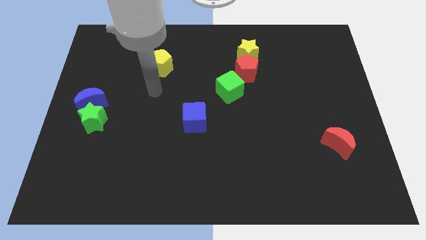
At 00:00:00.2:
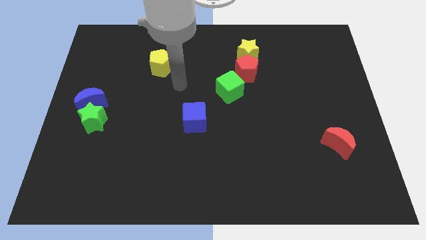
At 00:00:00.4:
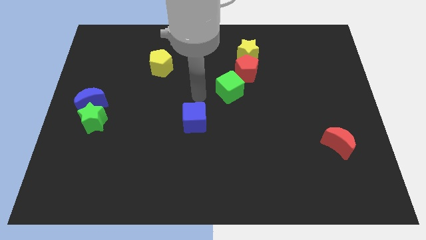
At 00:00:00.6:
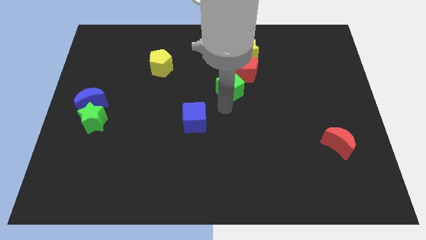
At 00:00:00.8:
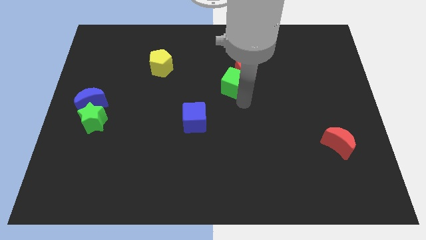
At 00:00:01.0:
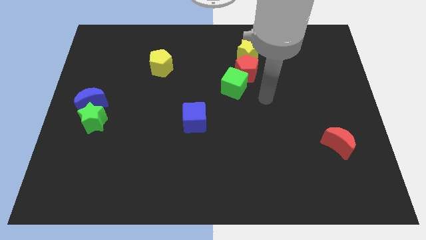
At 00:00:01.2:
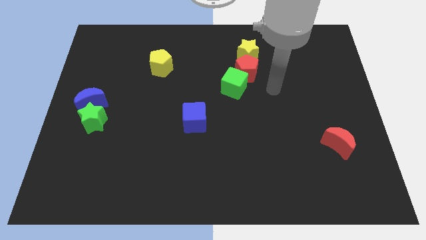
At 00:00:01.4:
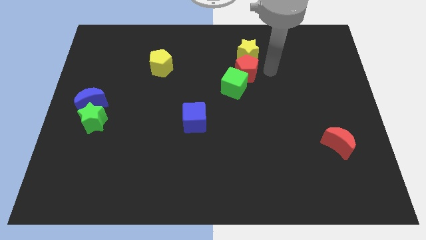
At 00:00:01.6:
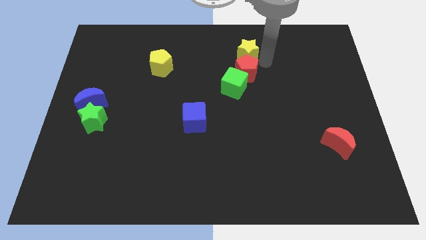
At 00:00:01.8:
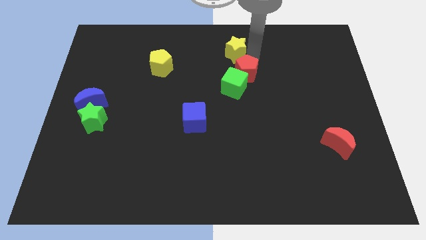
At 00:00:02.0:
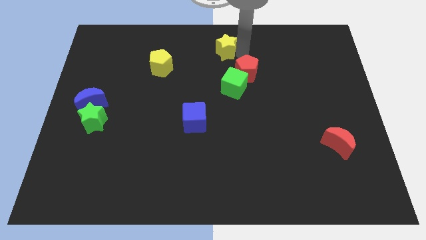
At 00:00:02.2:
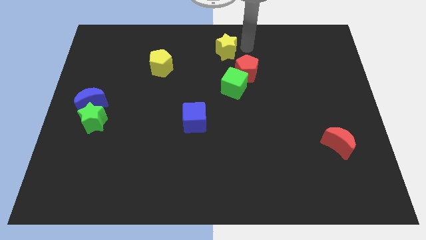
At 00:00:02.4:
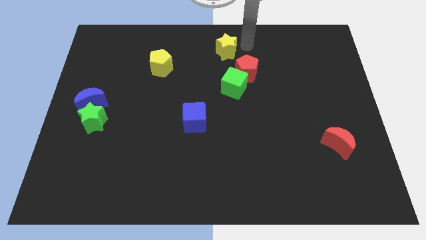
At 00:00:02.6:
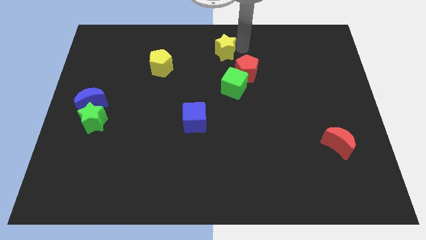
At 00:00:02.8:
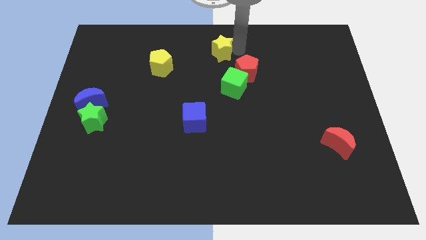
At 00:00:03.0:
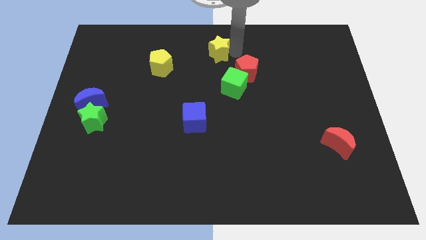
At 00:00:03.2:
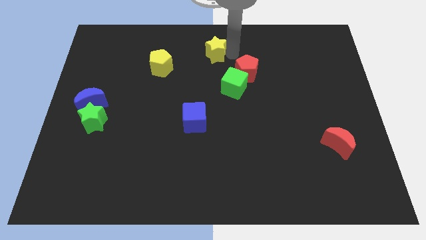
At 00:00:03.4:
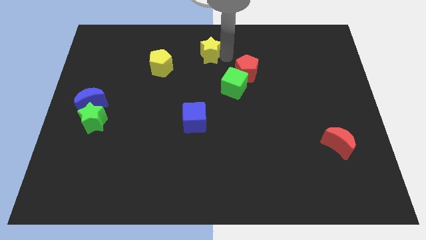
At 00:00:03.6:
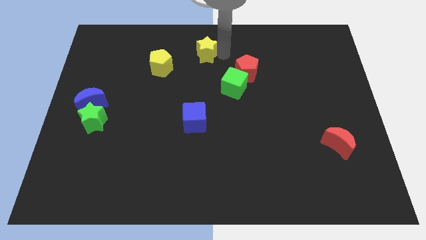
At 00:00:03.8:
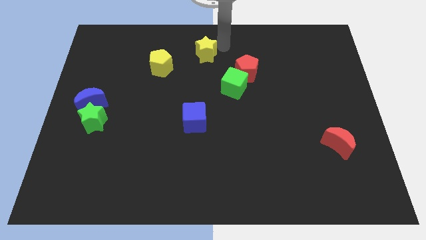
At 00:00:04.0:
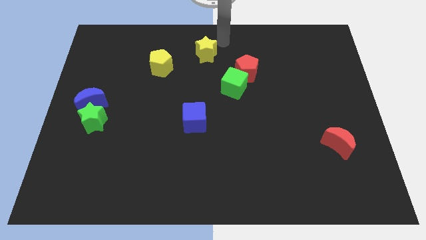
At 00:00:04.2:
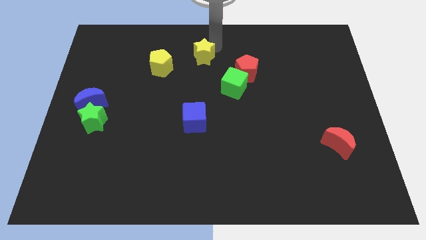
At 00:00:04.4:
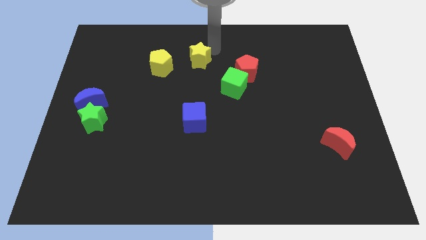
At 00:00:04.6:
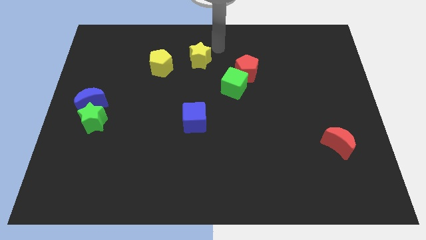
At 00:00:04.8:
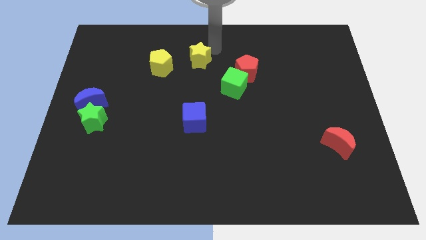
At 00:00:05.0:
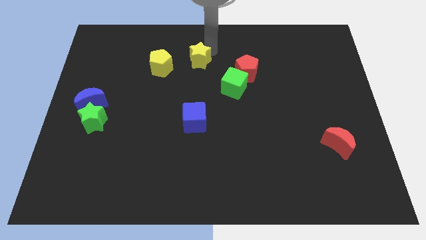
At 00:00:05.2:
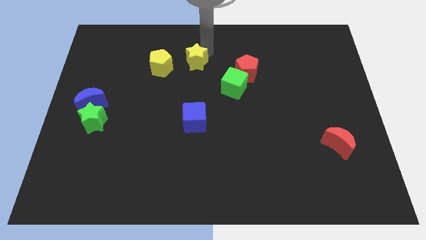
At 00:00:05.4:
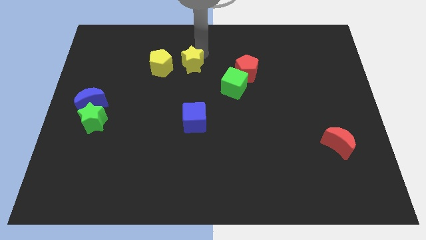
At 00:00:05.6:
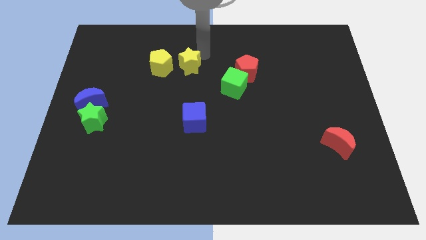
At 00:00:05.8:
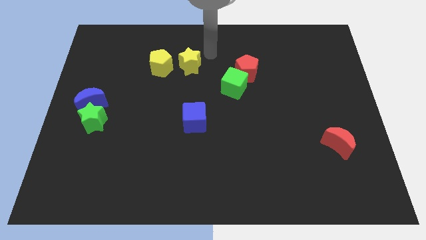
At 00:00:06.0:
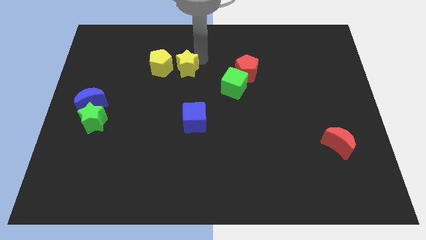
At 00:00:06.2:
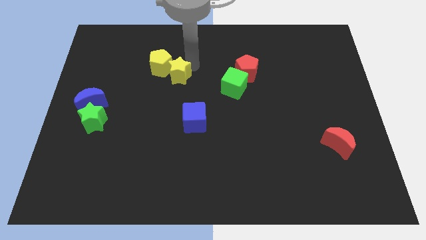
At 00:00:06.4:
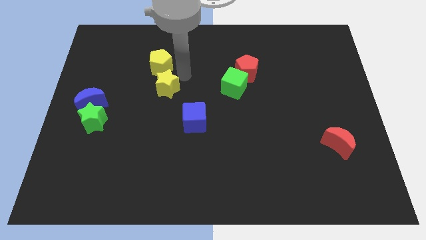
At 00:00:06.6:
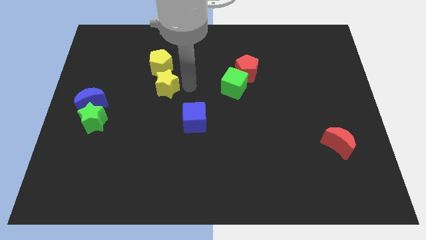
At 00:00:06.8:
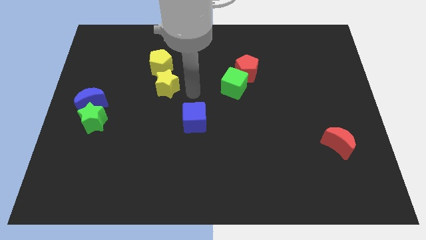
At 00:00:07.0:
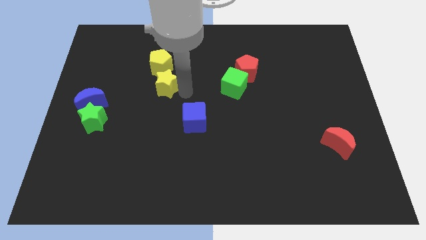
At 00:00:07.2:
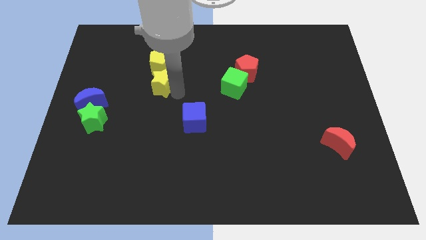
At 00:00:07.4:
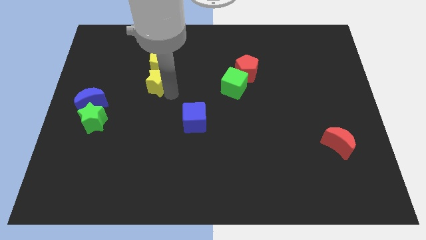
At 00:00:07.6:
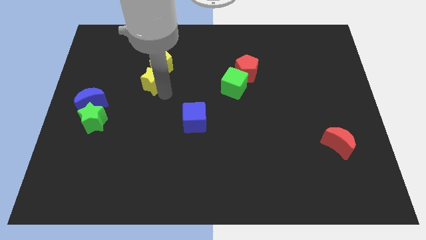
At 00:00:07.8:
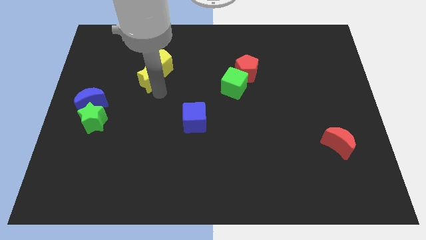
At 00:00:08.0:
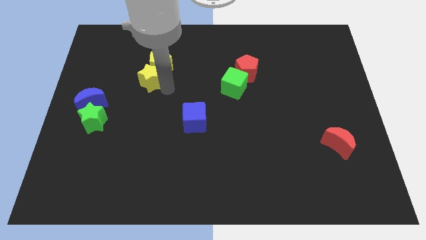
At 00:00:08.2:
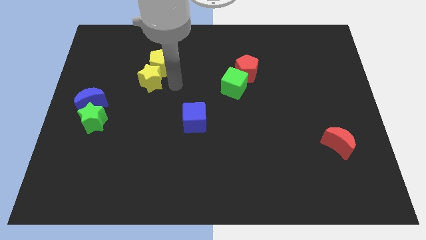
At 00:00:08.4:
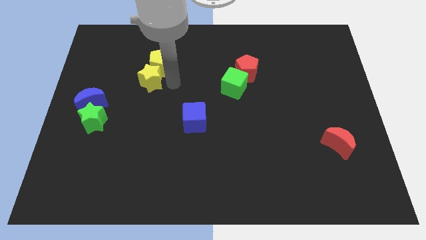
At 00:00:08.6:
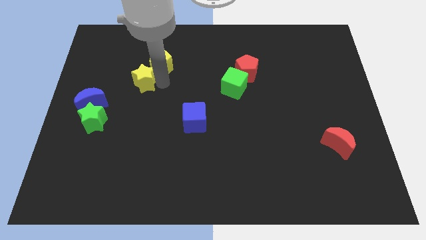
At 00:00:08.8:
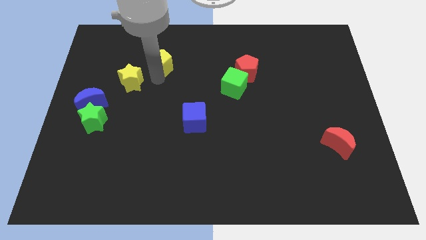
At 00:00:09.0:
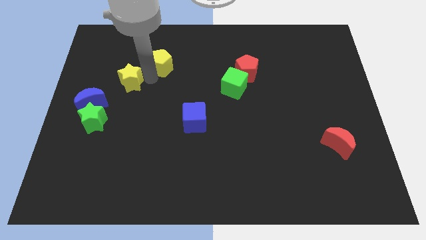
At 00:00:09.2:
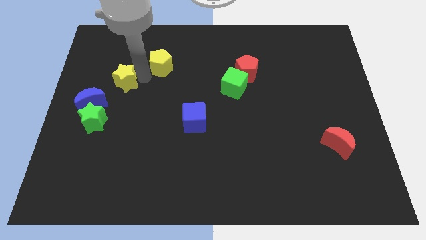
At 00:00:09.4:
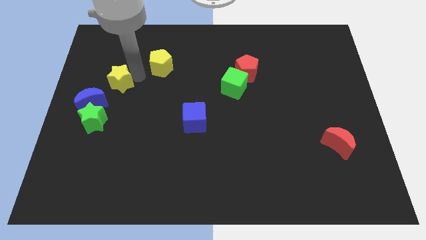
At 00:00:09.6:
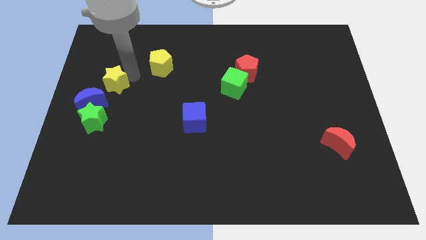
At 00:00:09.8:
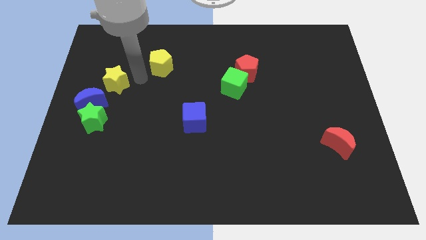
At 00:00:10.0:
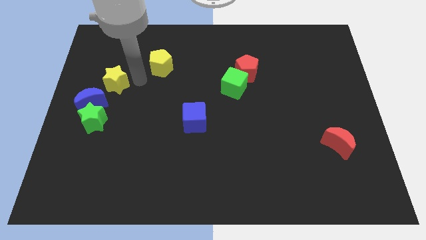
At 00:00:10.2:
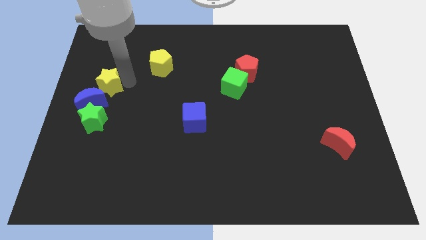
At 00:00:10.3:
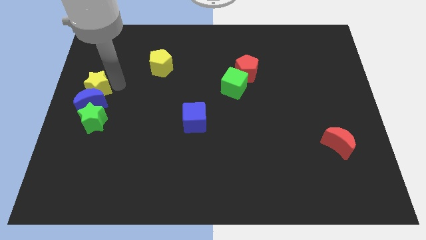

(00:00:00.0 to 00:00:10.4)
move the yellow star to the left side of the board

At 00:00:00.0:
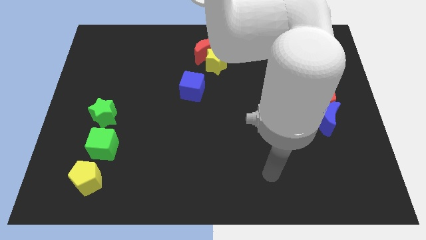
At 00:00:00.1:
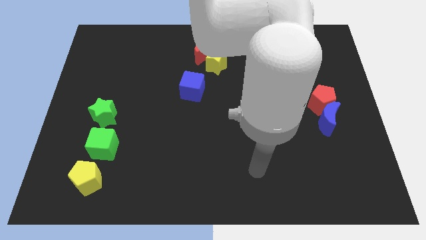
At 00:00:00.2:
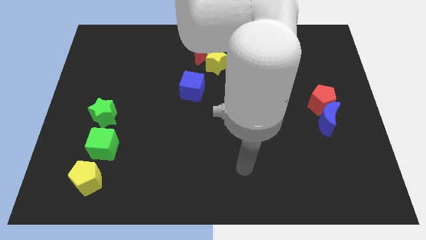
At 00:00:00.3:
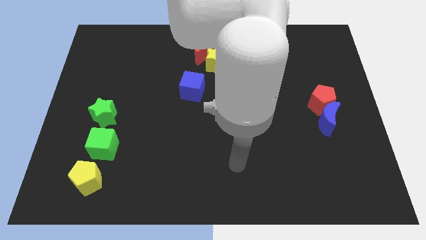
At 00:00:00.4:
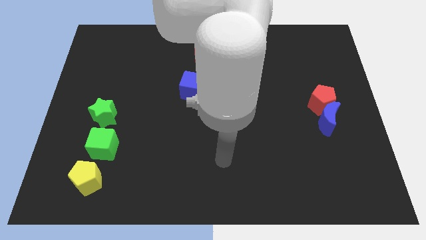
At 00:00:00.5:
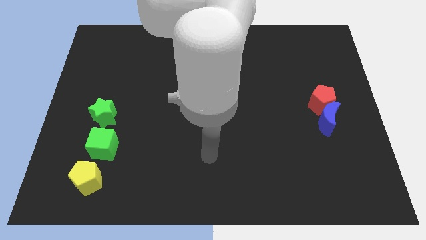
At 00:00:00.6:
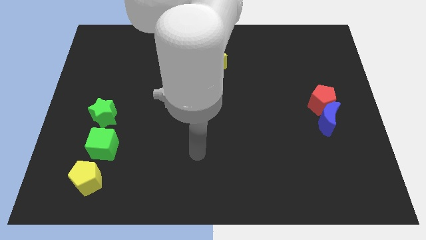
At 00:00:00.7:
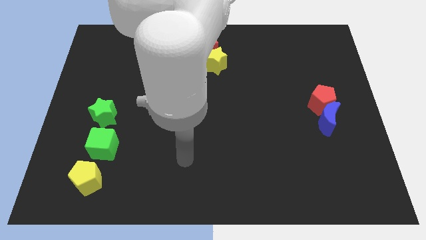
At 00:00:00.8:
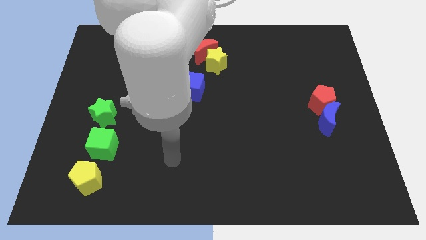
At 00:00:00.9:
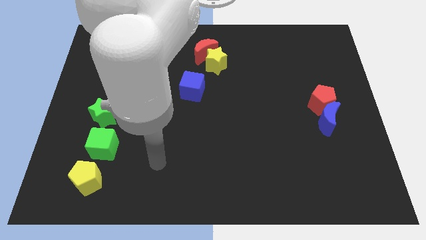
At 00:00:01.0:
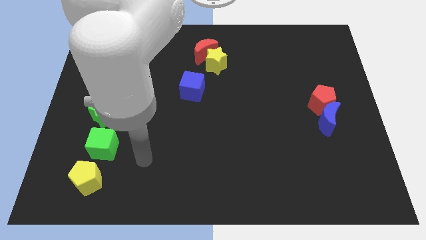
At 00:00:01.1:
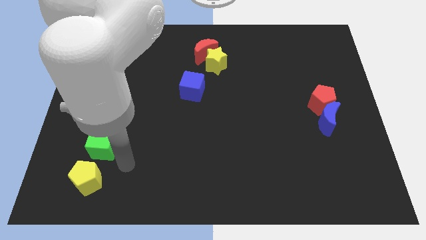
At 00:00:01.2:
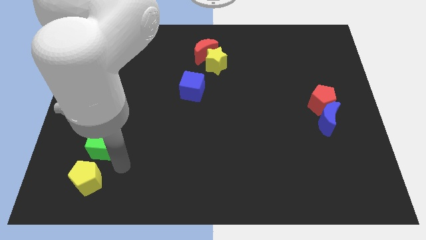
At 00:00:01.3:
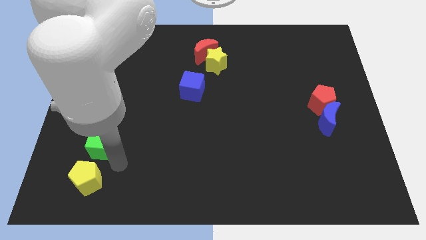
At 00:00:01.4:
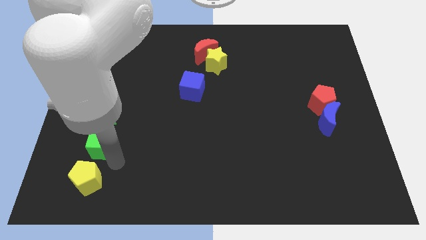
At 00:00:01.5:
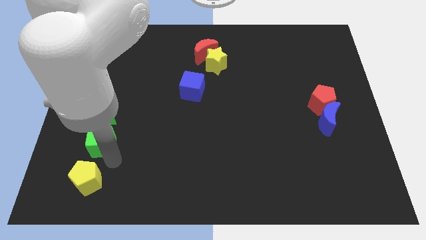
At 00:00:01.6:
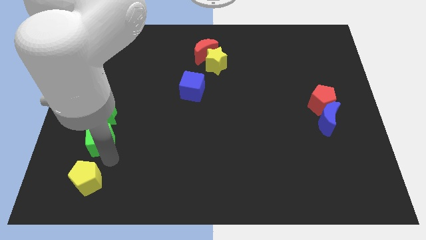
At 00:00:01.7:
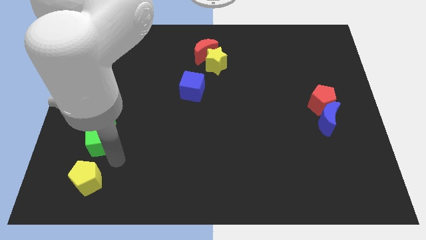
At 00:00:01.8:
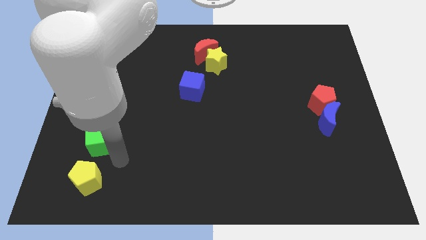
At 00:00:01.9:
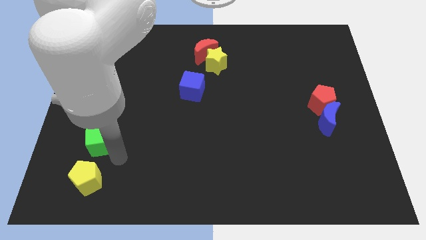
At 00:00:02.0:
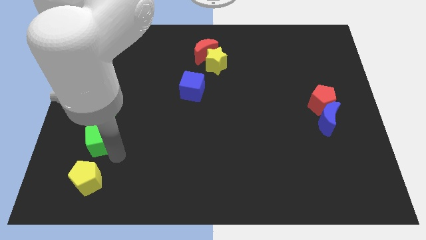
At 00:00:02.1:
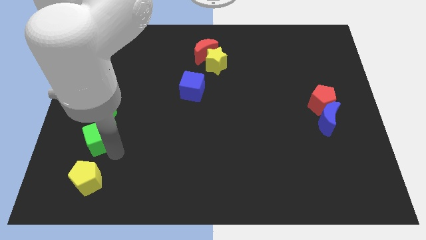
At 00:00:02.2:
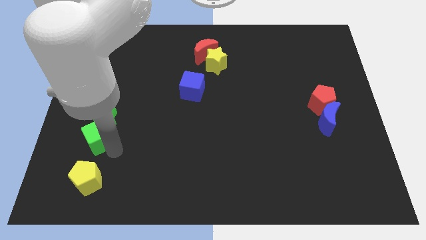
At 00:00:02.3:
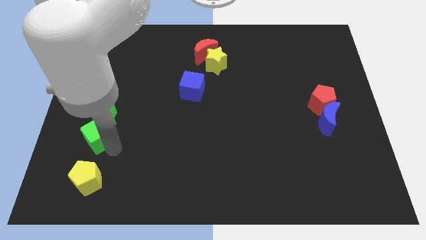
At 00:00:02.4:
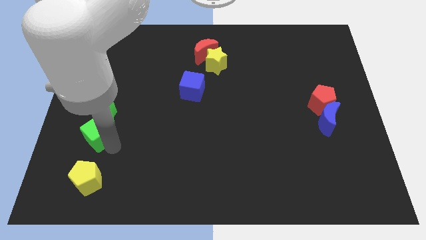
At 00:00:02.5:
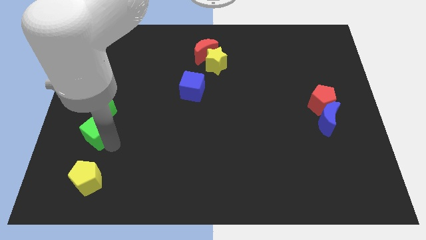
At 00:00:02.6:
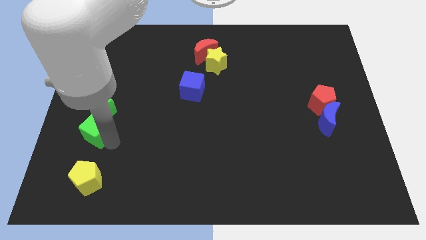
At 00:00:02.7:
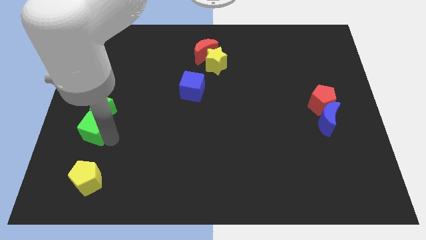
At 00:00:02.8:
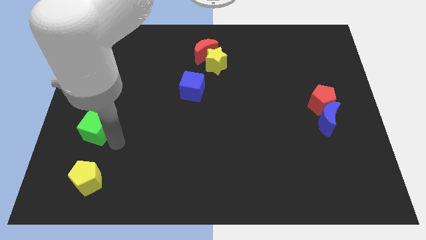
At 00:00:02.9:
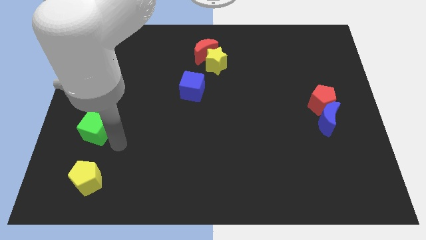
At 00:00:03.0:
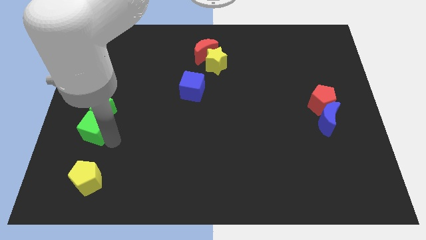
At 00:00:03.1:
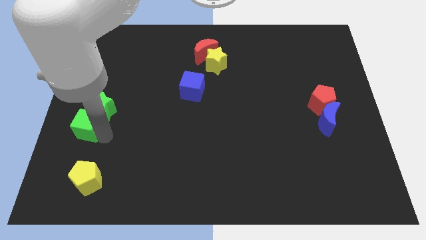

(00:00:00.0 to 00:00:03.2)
slide the green cube to the left side of the board
